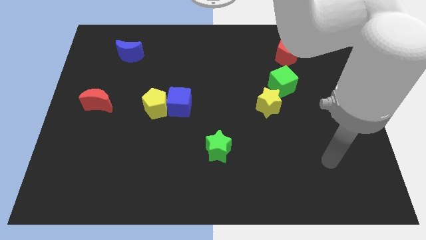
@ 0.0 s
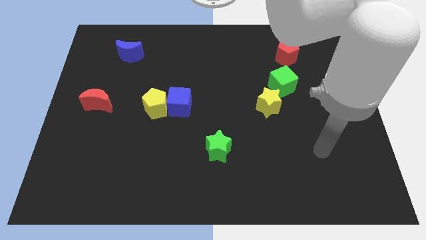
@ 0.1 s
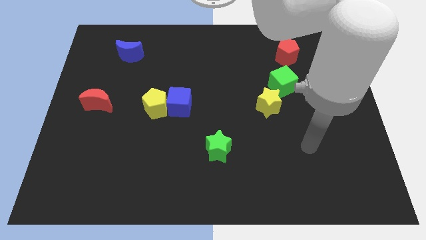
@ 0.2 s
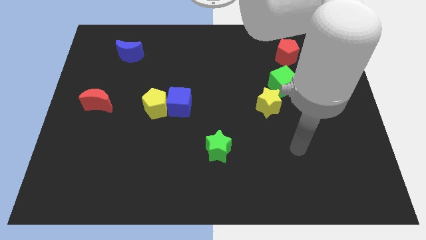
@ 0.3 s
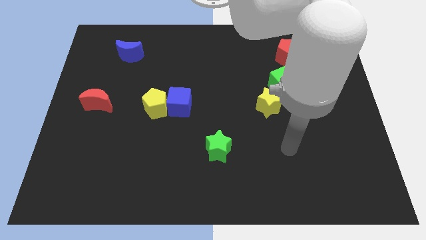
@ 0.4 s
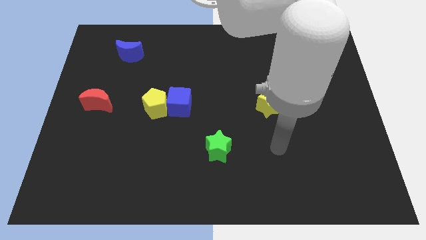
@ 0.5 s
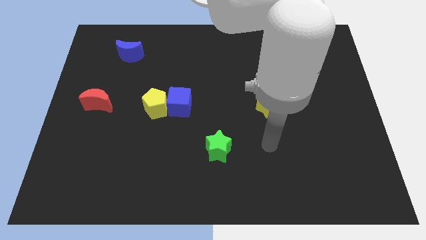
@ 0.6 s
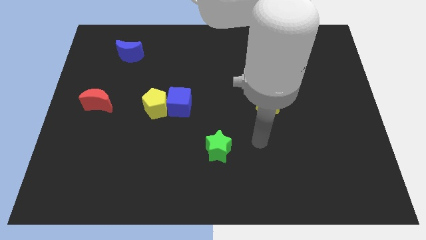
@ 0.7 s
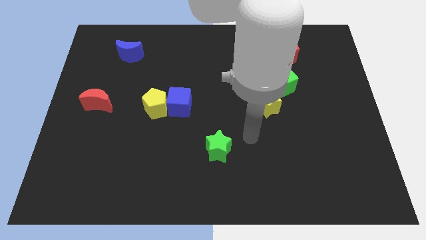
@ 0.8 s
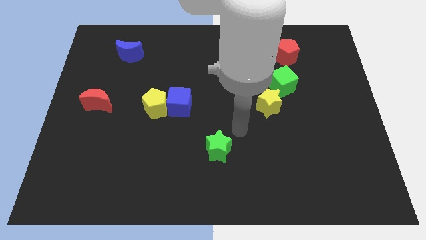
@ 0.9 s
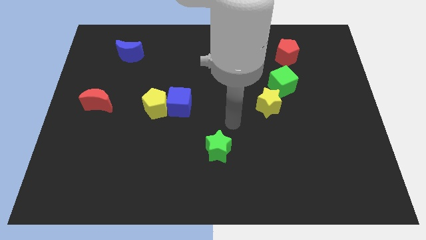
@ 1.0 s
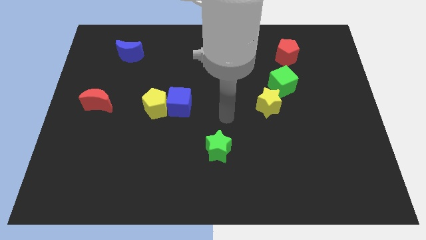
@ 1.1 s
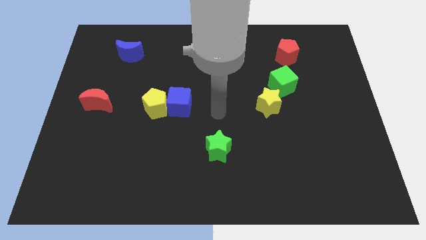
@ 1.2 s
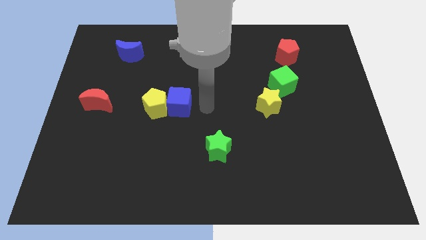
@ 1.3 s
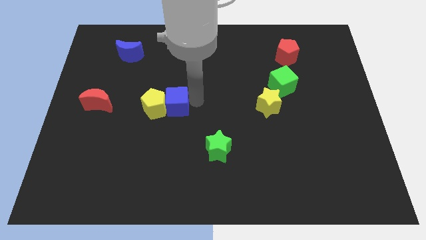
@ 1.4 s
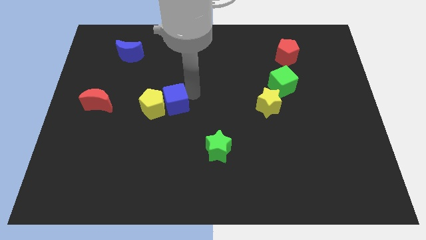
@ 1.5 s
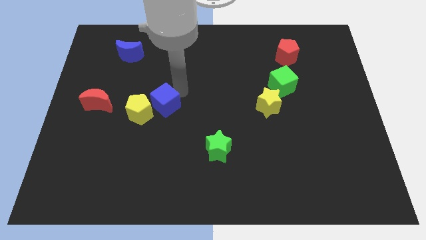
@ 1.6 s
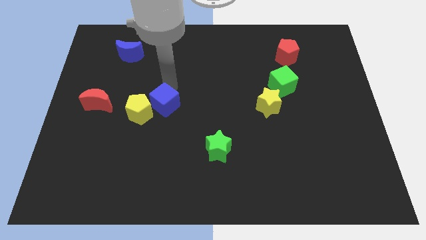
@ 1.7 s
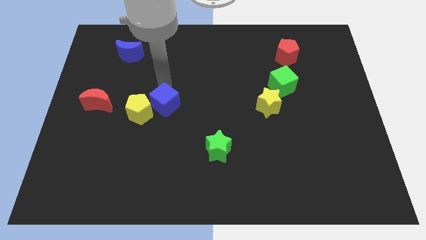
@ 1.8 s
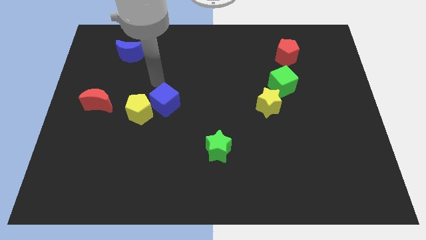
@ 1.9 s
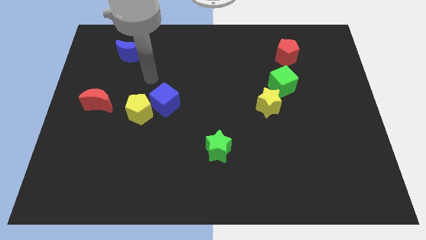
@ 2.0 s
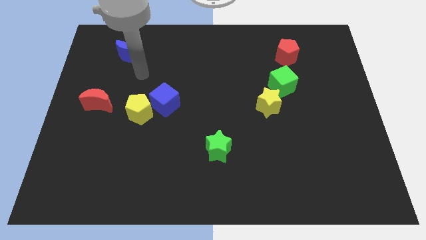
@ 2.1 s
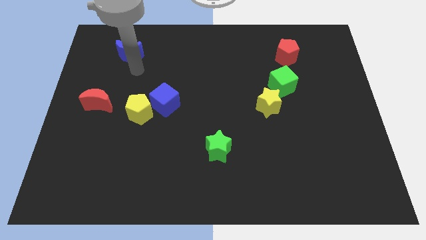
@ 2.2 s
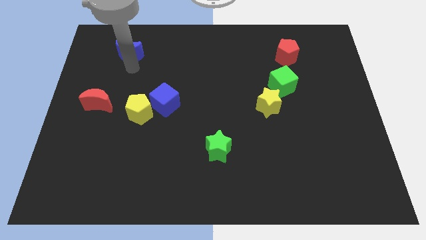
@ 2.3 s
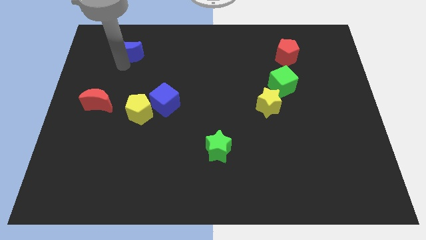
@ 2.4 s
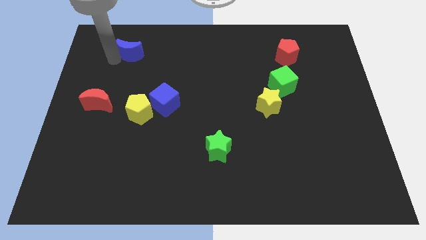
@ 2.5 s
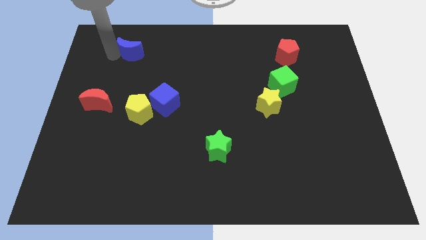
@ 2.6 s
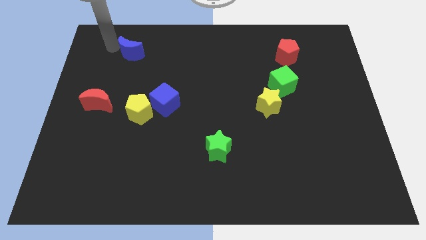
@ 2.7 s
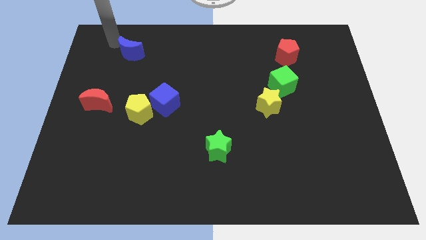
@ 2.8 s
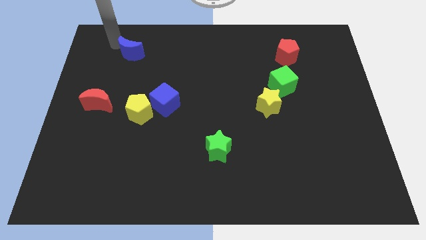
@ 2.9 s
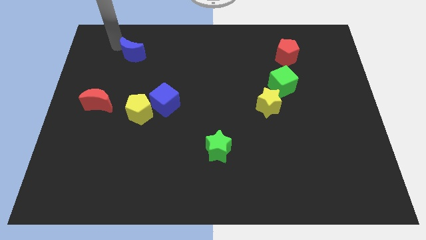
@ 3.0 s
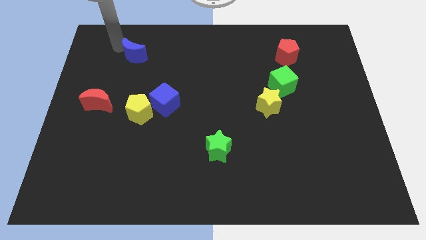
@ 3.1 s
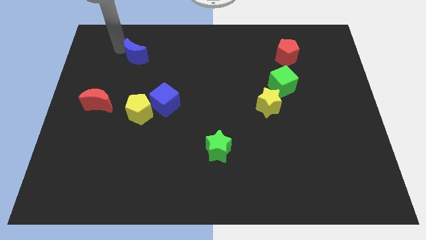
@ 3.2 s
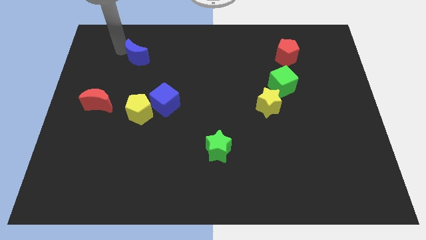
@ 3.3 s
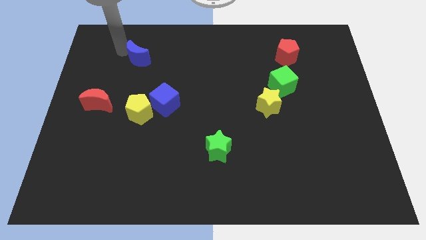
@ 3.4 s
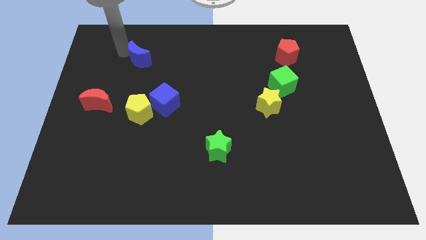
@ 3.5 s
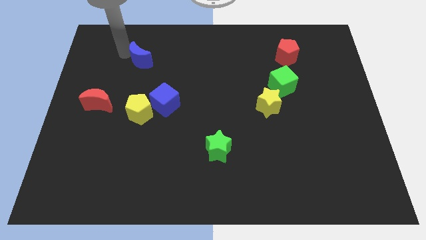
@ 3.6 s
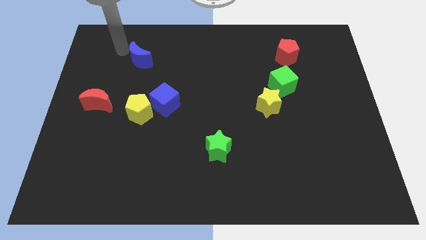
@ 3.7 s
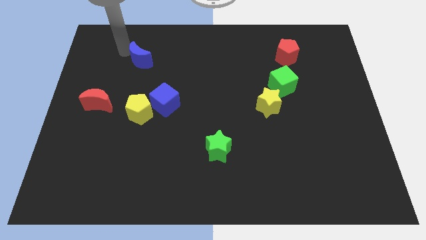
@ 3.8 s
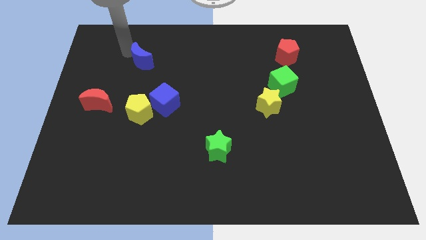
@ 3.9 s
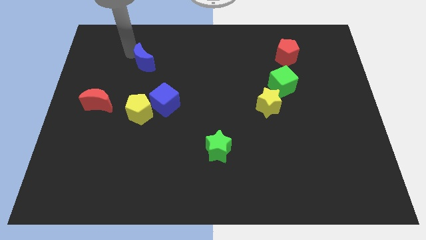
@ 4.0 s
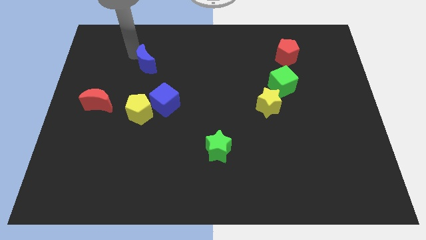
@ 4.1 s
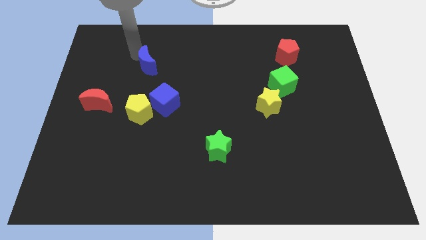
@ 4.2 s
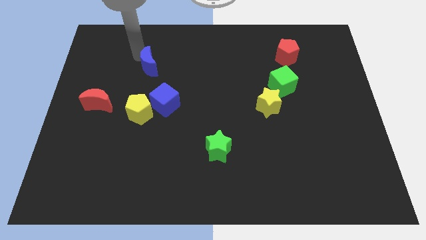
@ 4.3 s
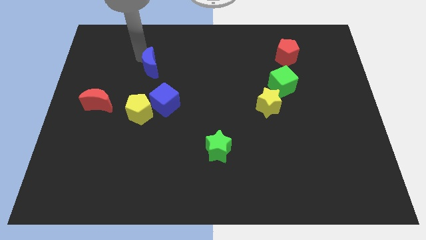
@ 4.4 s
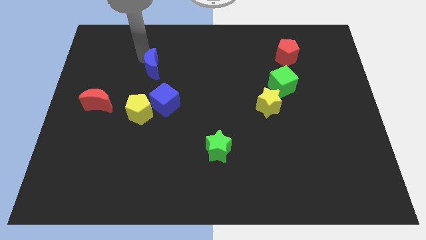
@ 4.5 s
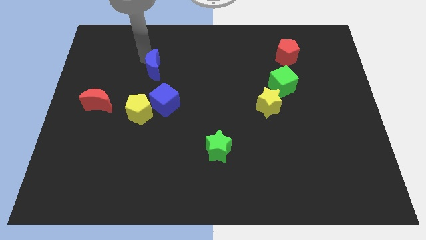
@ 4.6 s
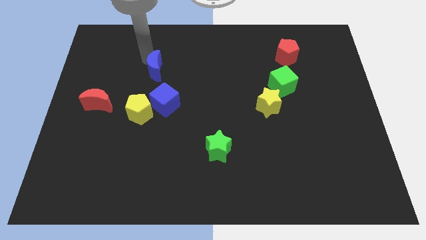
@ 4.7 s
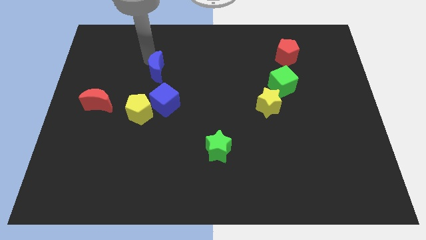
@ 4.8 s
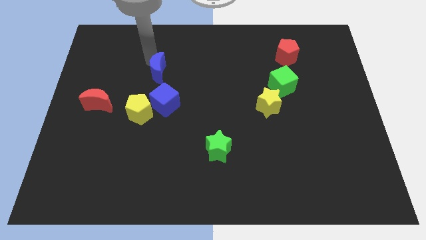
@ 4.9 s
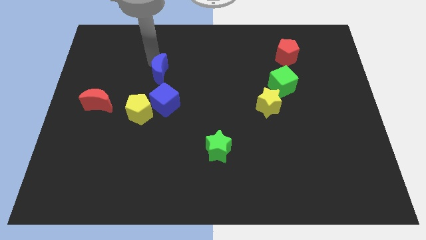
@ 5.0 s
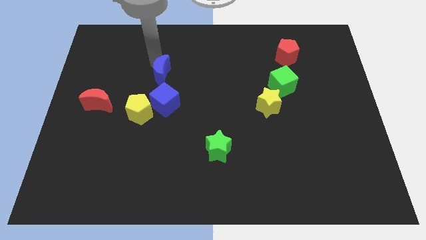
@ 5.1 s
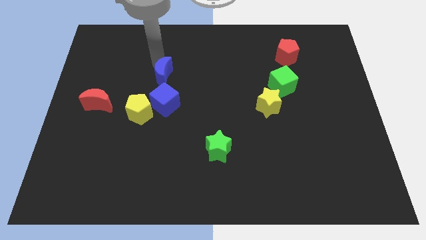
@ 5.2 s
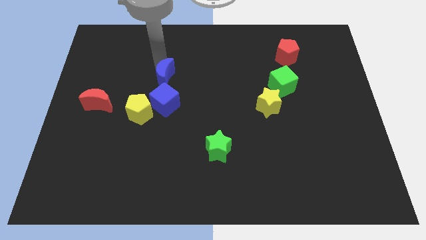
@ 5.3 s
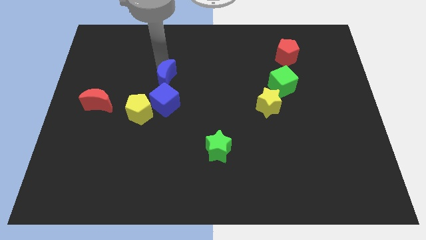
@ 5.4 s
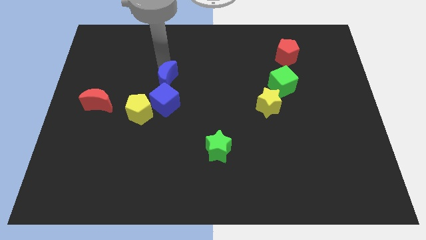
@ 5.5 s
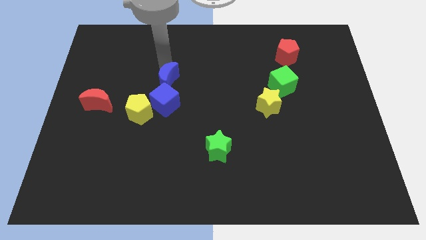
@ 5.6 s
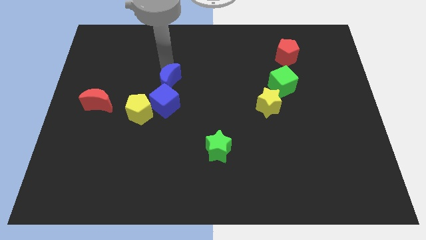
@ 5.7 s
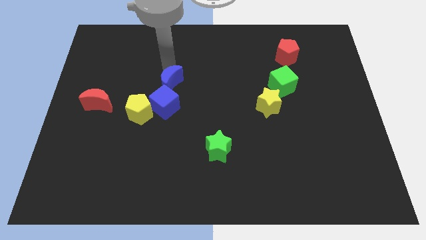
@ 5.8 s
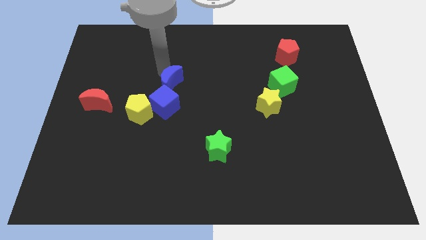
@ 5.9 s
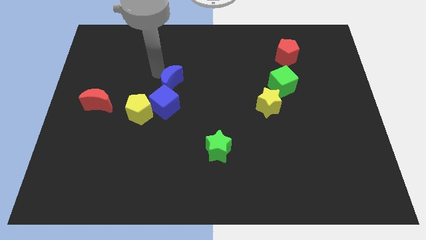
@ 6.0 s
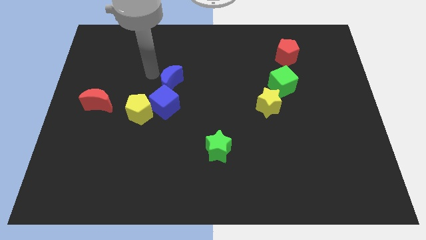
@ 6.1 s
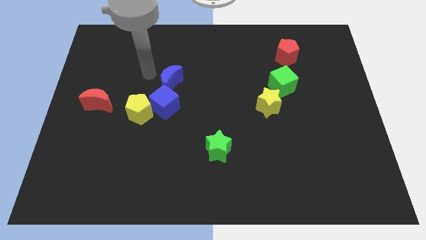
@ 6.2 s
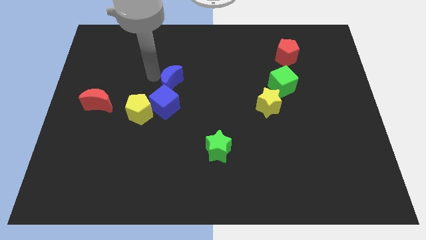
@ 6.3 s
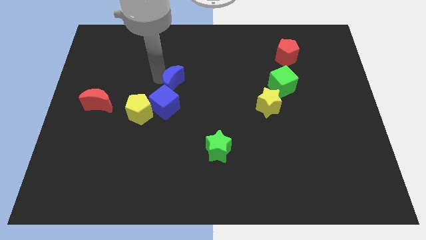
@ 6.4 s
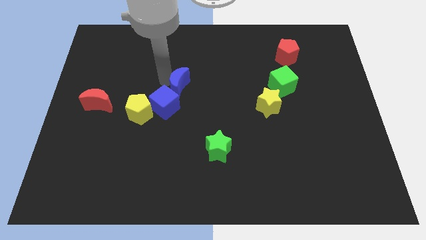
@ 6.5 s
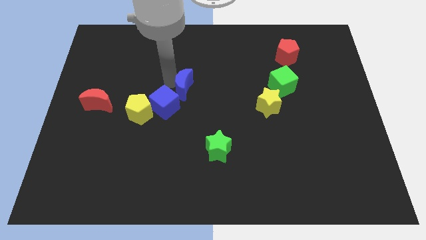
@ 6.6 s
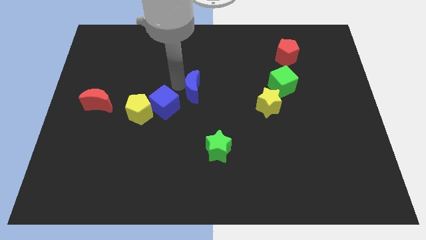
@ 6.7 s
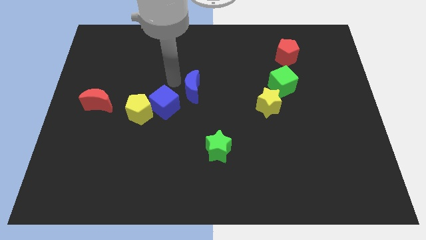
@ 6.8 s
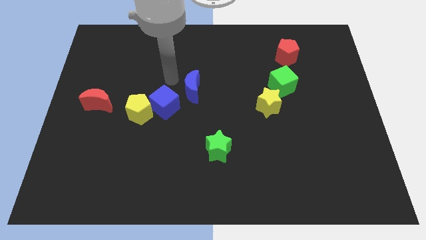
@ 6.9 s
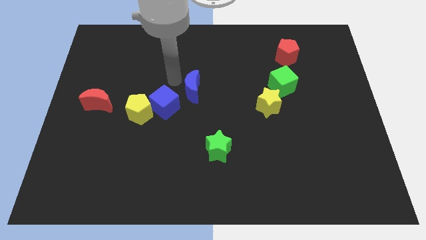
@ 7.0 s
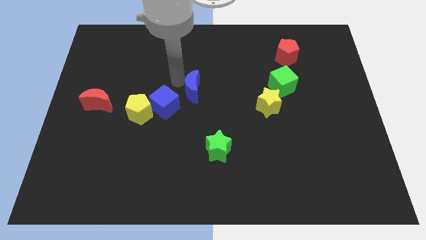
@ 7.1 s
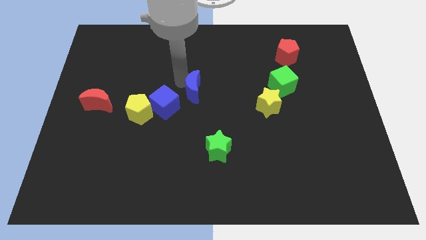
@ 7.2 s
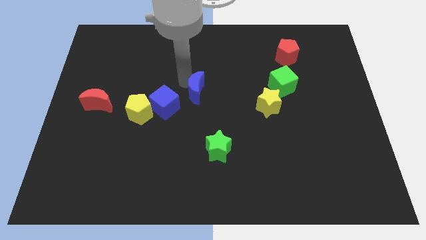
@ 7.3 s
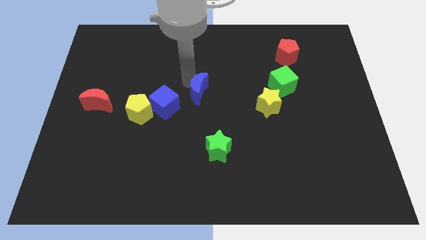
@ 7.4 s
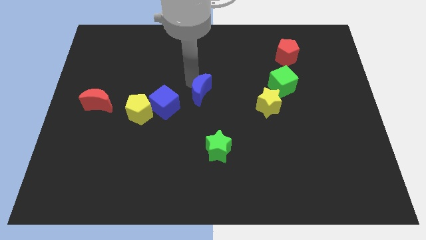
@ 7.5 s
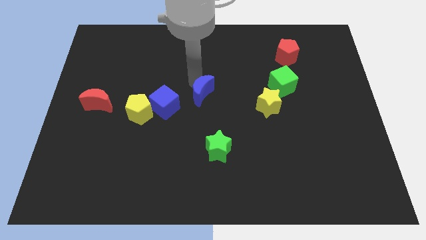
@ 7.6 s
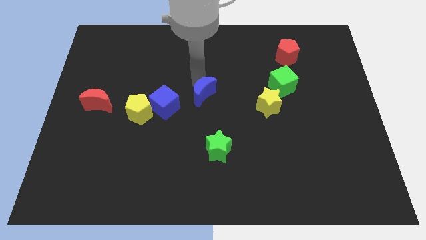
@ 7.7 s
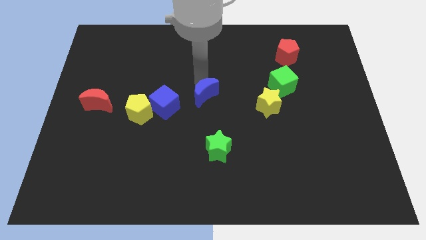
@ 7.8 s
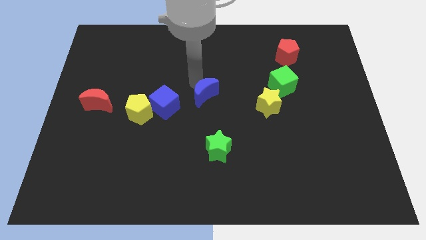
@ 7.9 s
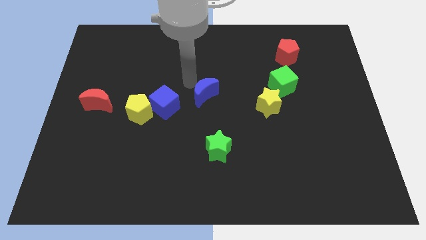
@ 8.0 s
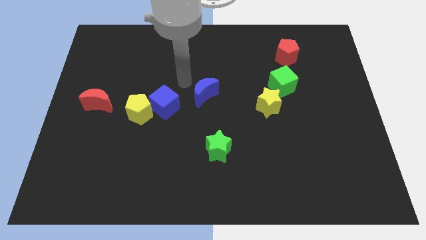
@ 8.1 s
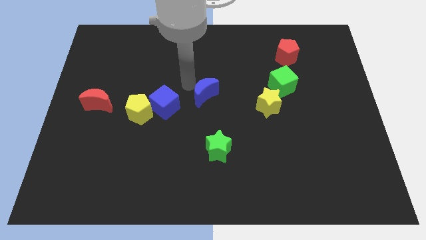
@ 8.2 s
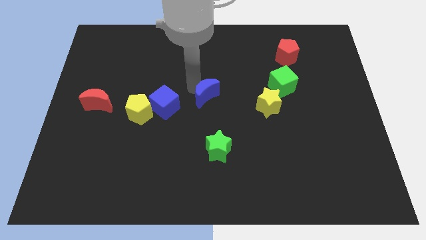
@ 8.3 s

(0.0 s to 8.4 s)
move the blue moon to the left side of the yellow star
